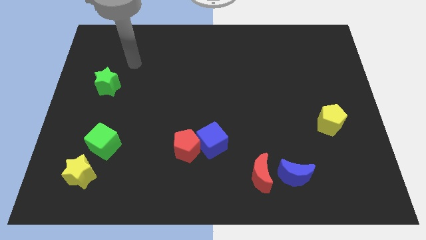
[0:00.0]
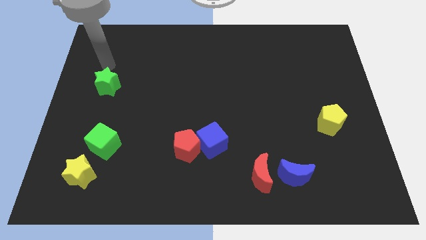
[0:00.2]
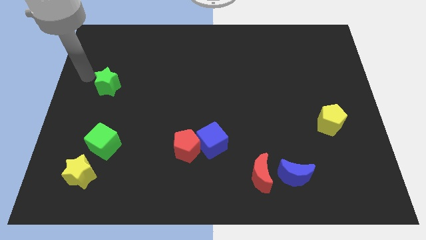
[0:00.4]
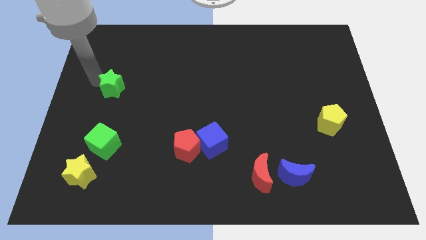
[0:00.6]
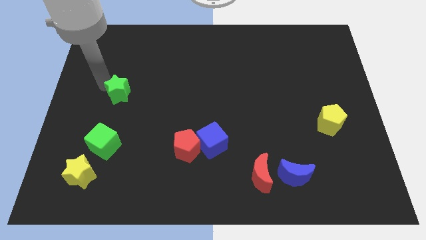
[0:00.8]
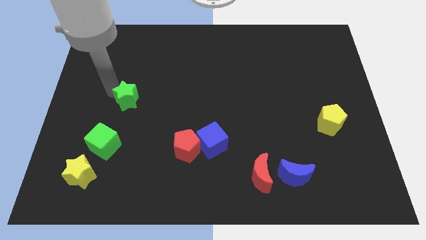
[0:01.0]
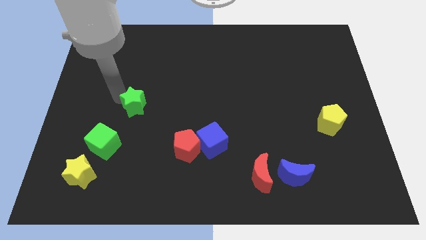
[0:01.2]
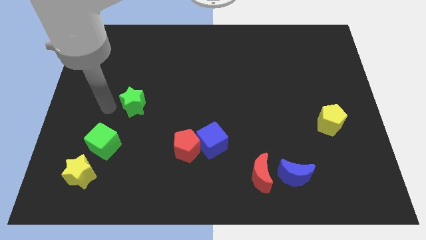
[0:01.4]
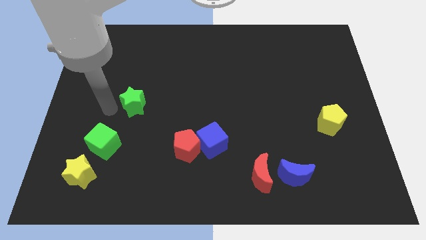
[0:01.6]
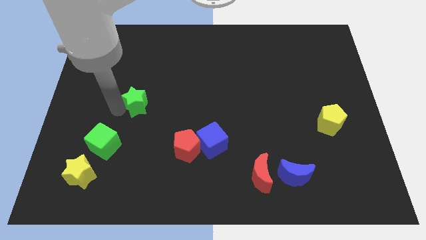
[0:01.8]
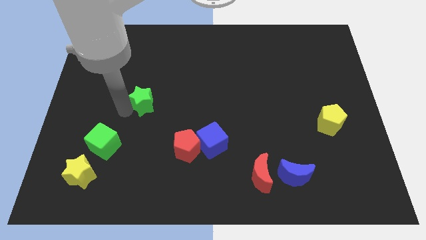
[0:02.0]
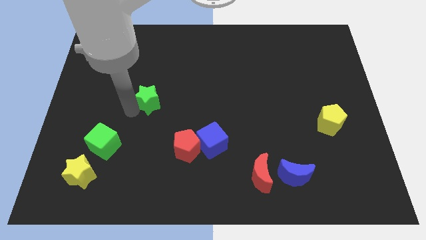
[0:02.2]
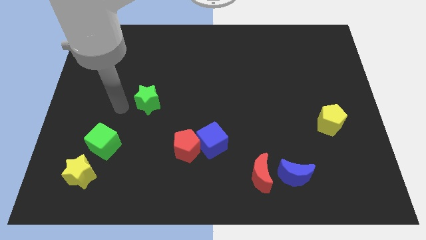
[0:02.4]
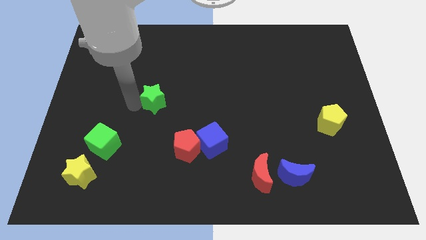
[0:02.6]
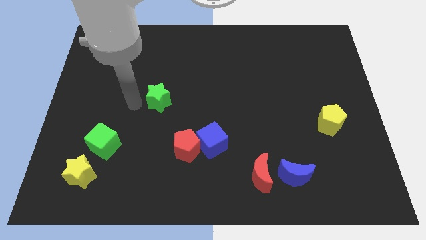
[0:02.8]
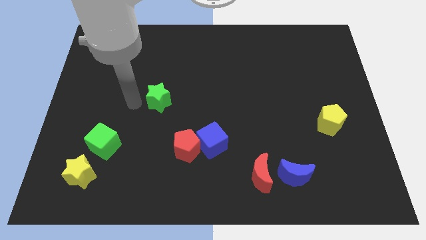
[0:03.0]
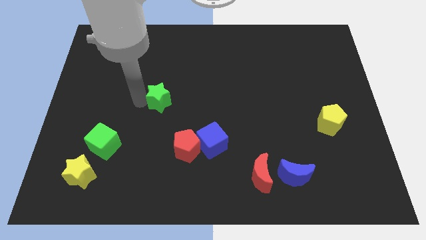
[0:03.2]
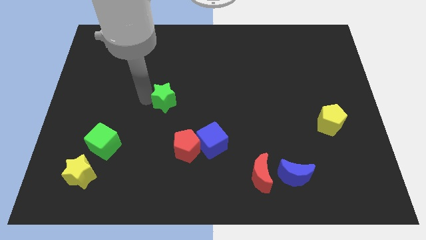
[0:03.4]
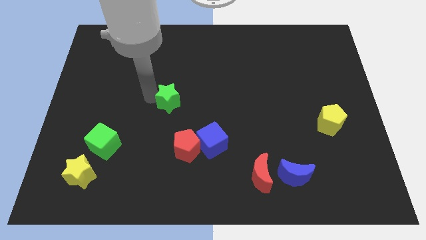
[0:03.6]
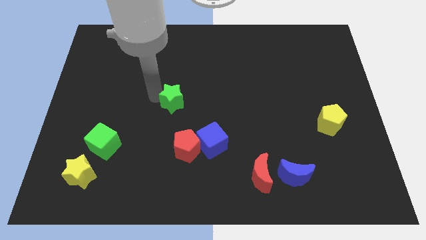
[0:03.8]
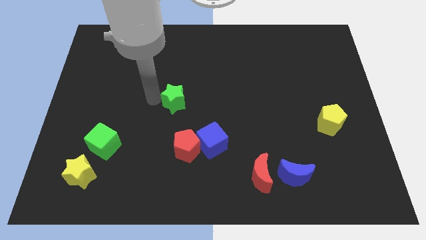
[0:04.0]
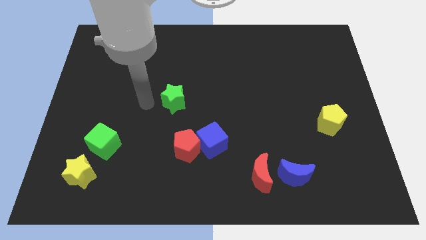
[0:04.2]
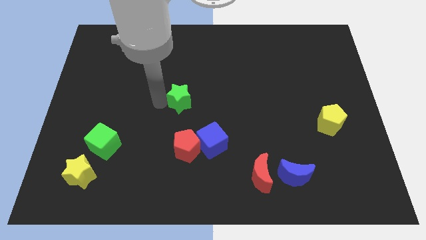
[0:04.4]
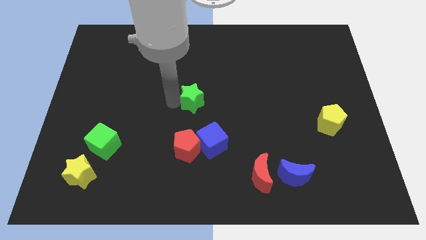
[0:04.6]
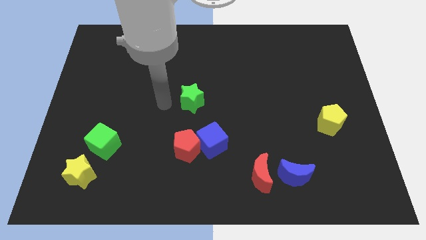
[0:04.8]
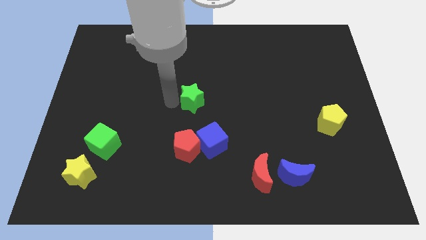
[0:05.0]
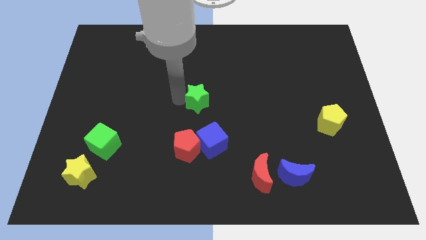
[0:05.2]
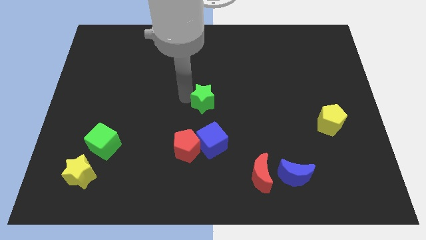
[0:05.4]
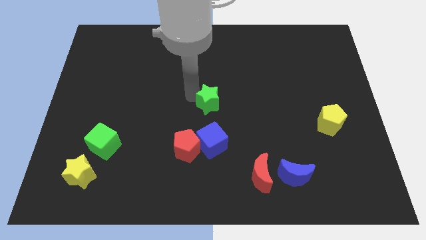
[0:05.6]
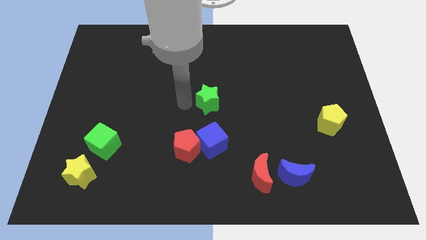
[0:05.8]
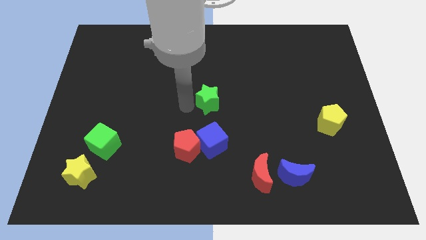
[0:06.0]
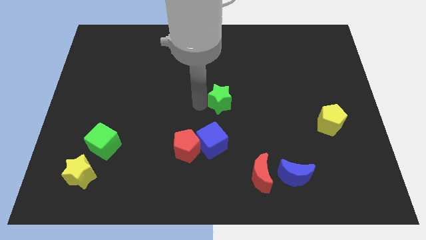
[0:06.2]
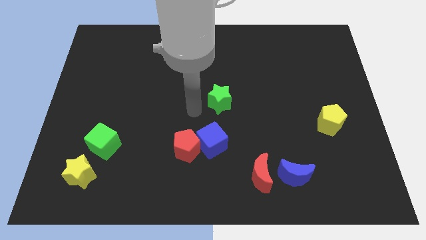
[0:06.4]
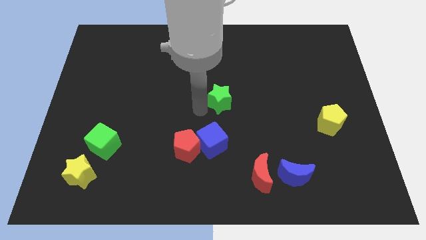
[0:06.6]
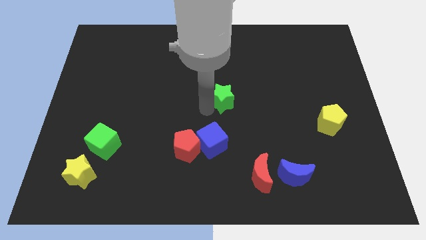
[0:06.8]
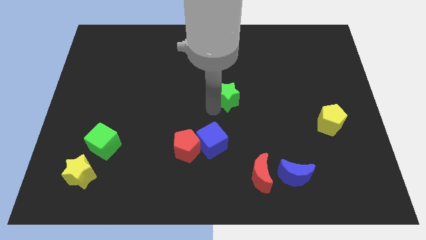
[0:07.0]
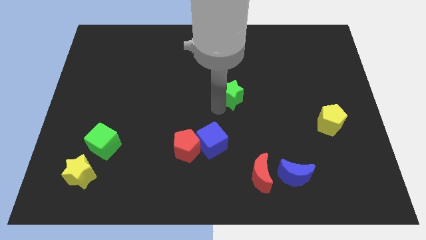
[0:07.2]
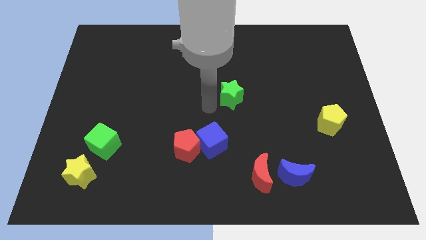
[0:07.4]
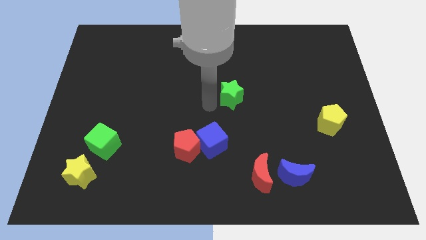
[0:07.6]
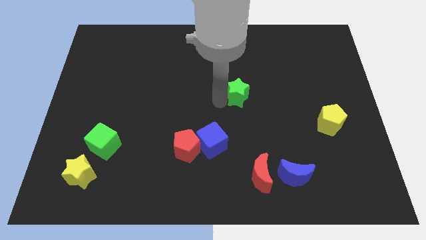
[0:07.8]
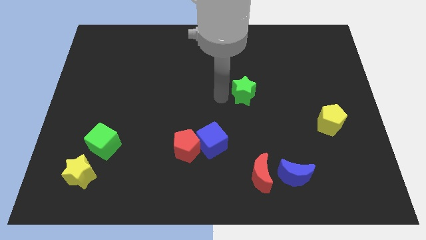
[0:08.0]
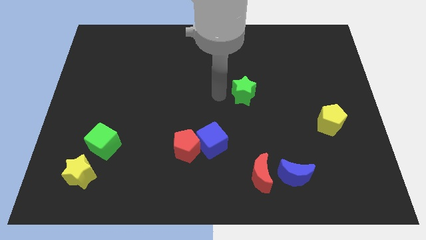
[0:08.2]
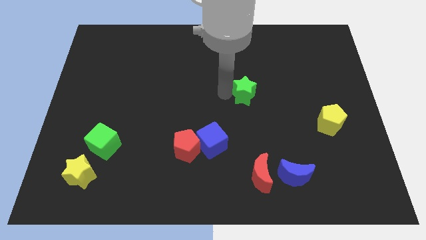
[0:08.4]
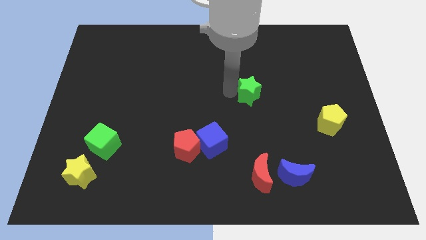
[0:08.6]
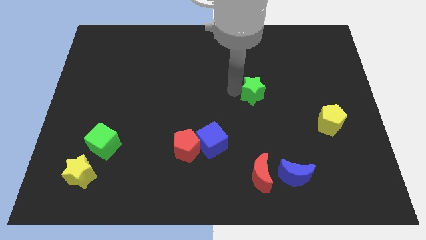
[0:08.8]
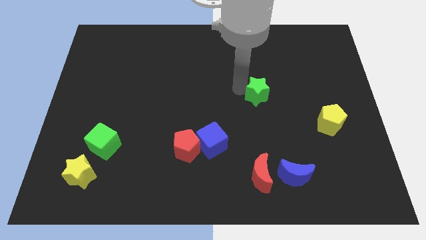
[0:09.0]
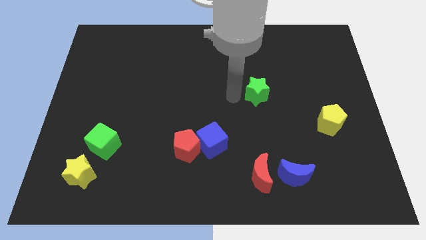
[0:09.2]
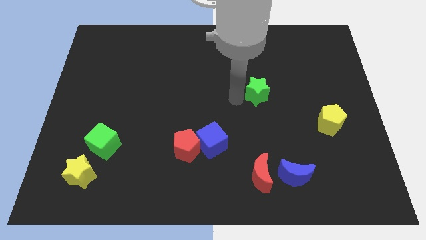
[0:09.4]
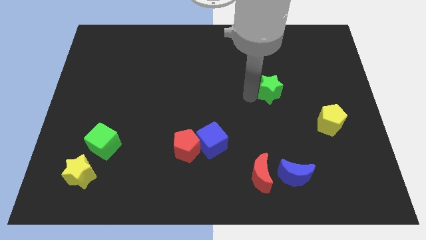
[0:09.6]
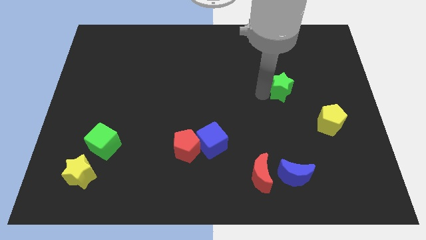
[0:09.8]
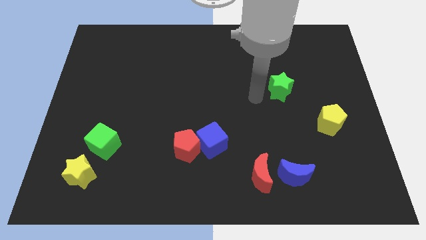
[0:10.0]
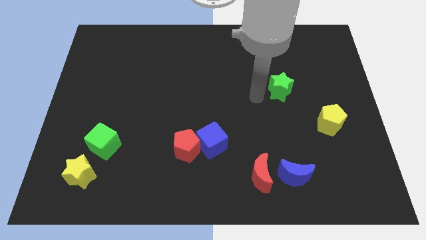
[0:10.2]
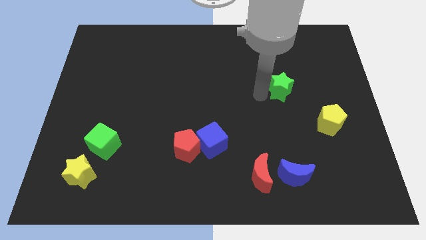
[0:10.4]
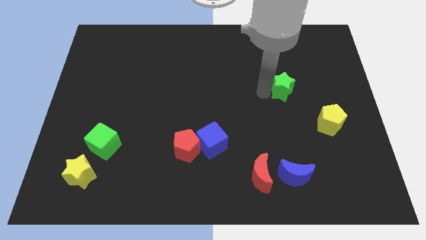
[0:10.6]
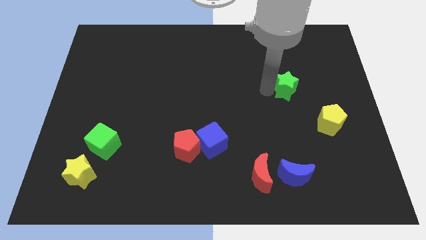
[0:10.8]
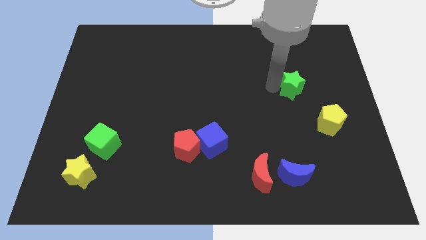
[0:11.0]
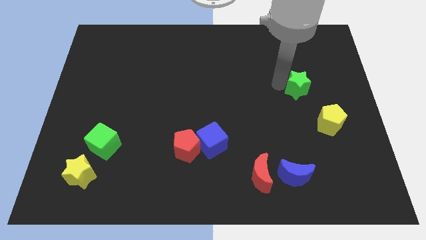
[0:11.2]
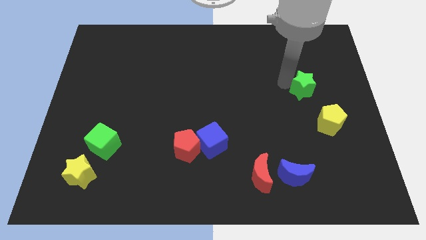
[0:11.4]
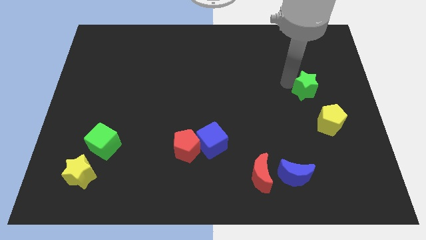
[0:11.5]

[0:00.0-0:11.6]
put the green star to the top side of the yellow pentagon

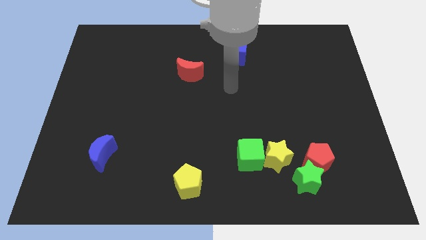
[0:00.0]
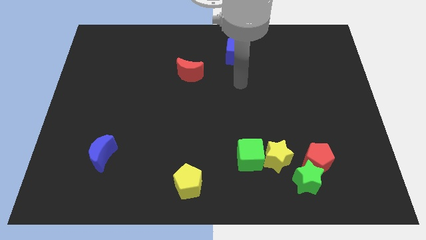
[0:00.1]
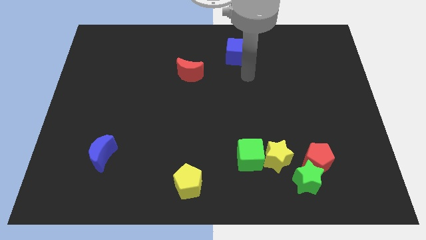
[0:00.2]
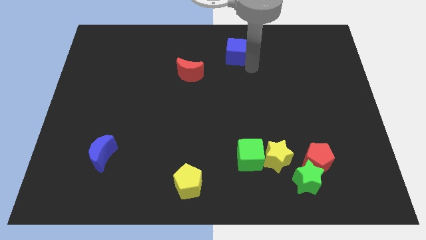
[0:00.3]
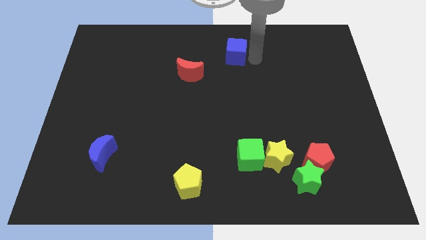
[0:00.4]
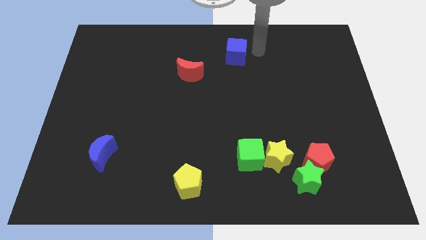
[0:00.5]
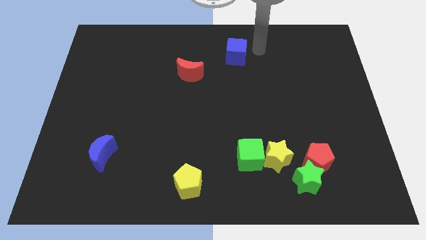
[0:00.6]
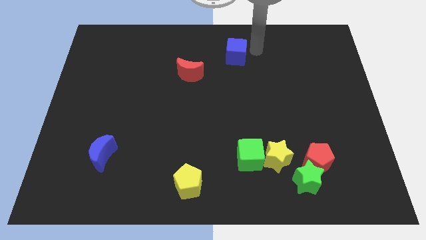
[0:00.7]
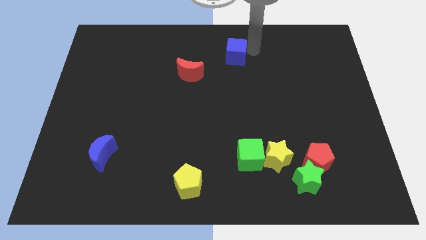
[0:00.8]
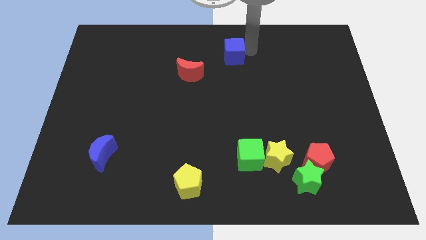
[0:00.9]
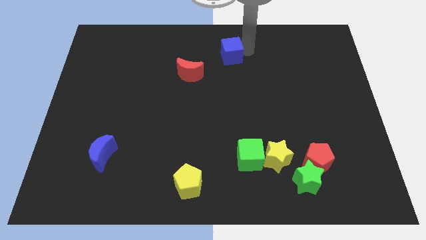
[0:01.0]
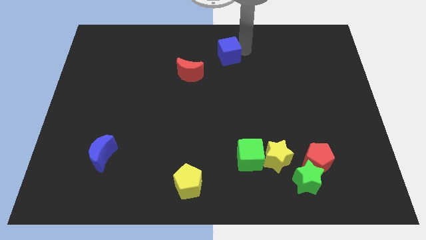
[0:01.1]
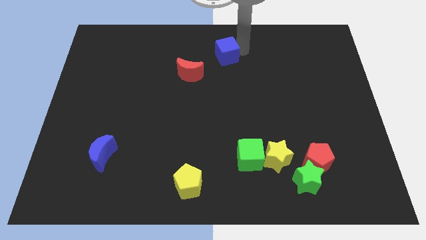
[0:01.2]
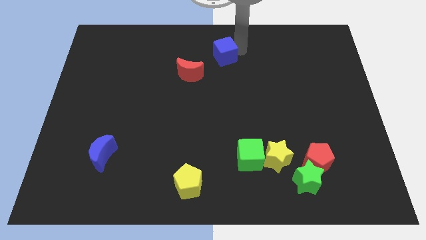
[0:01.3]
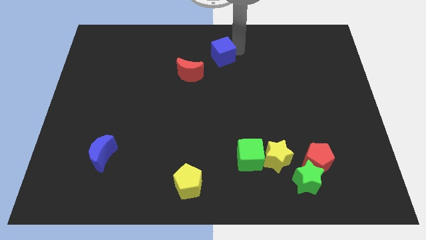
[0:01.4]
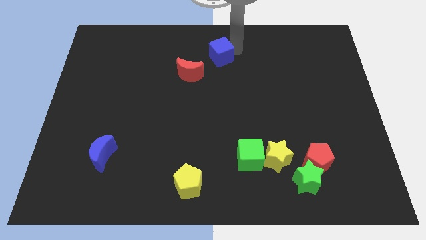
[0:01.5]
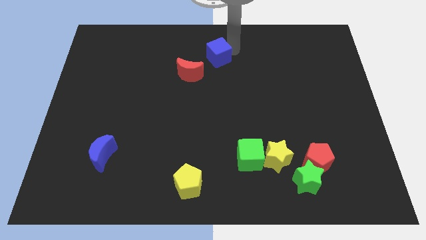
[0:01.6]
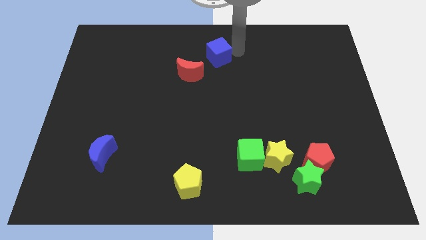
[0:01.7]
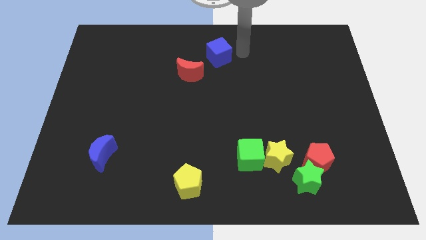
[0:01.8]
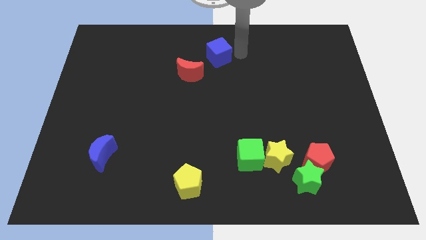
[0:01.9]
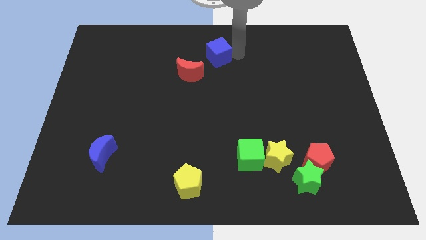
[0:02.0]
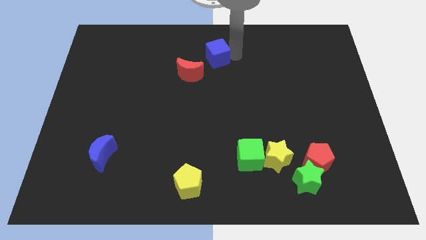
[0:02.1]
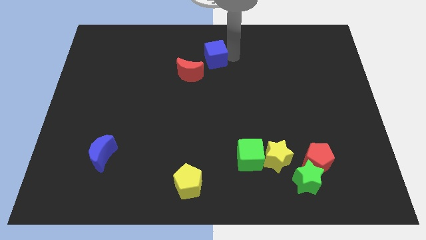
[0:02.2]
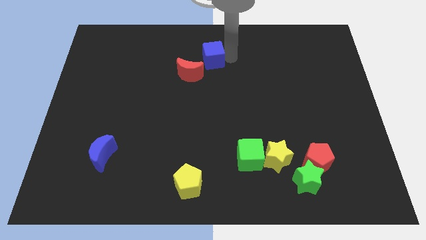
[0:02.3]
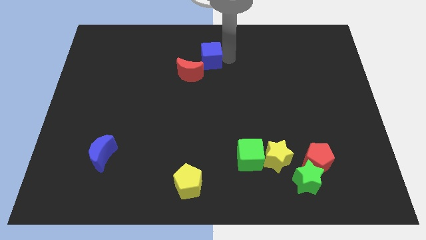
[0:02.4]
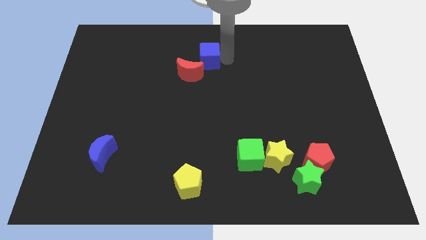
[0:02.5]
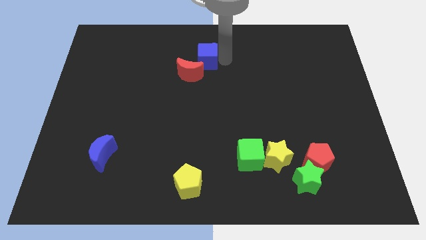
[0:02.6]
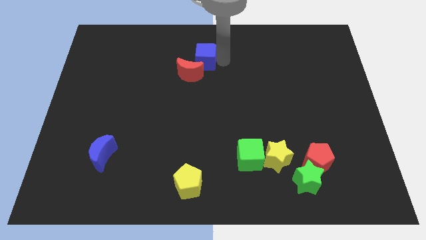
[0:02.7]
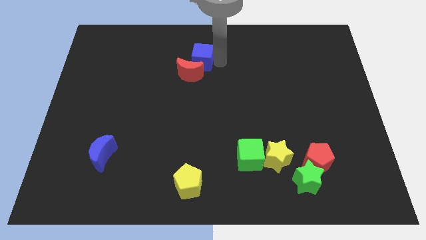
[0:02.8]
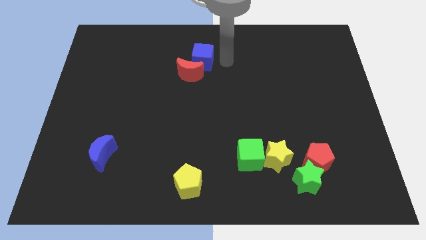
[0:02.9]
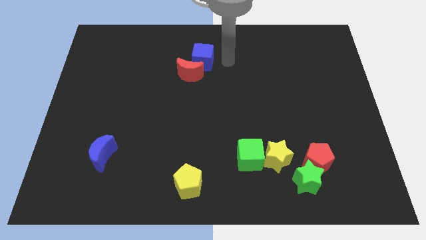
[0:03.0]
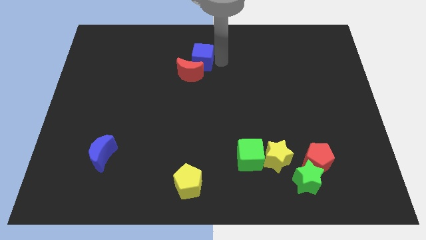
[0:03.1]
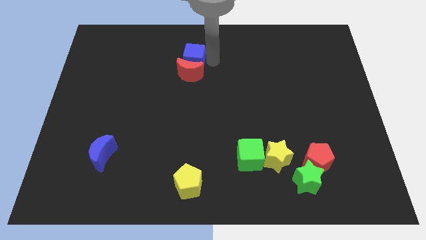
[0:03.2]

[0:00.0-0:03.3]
move the blue cube to the top left side of the red moon
